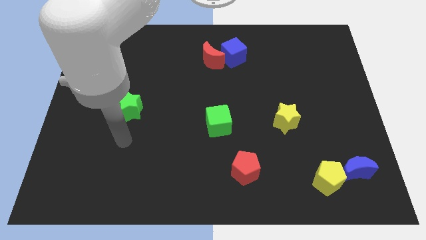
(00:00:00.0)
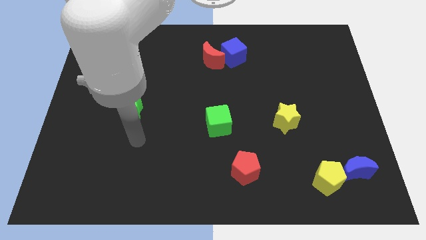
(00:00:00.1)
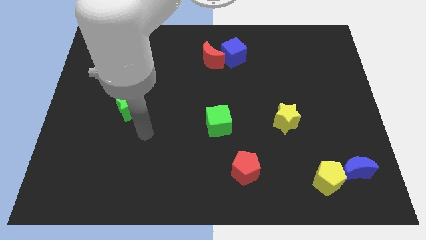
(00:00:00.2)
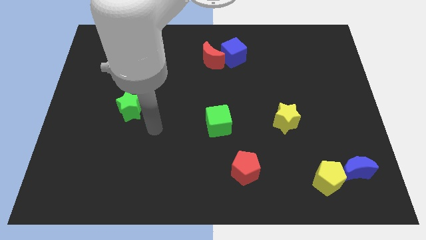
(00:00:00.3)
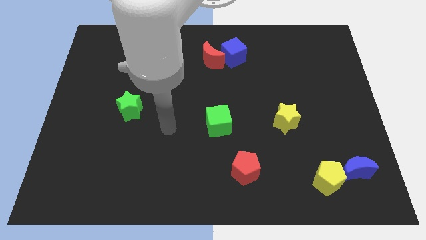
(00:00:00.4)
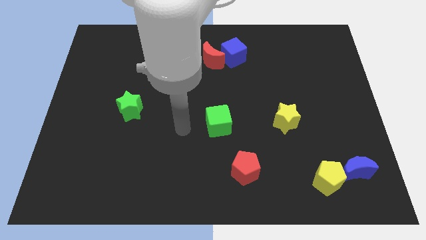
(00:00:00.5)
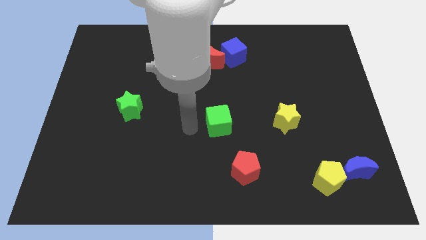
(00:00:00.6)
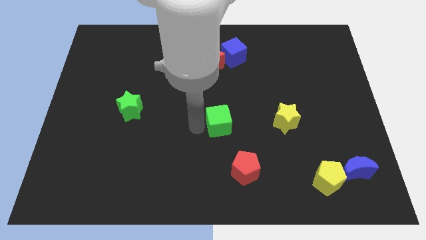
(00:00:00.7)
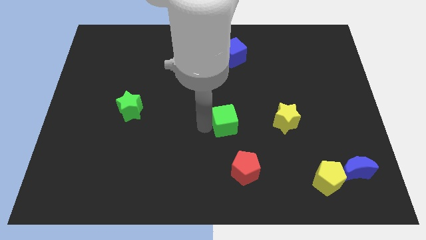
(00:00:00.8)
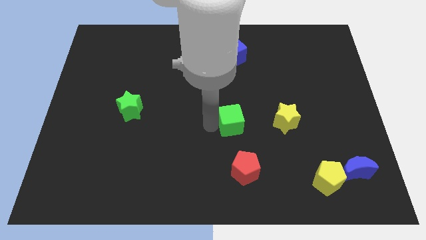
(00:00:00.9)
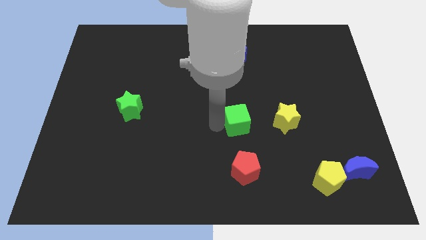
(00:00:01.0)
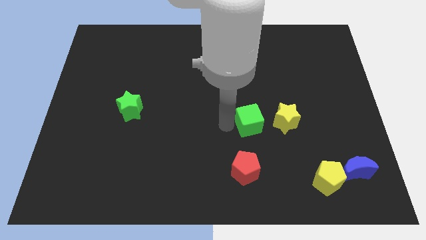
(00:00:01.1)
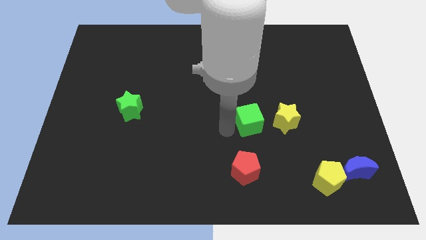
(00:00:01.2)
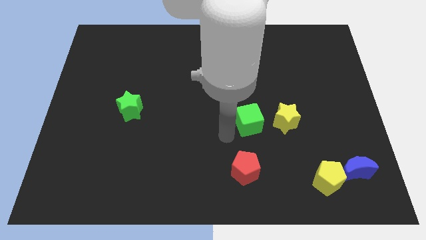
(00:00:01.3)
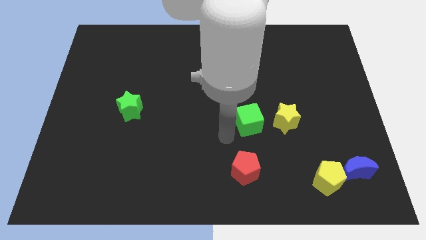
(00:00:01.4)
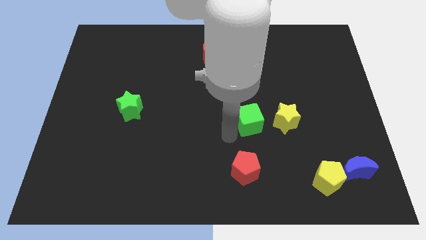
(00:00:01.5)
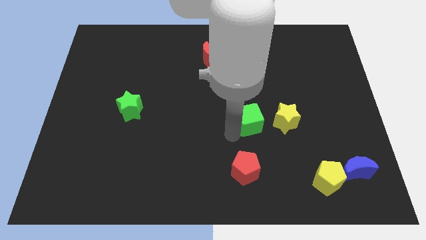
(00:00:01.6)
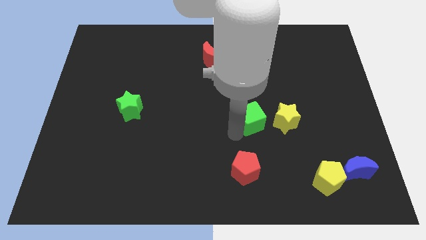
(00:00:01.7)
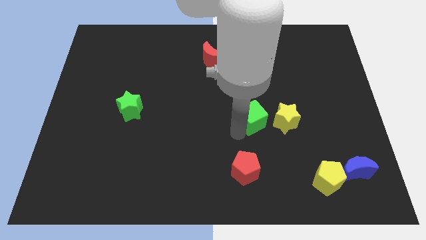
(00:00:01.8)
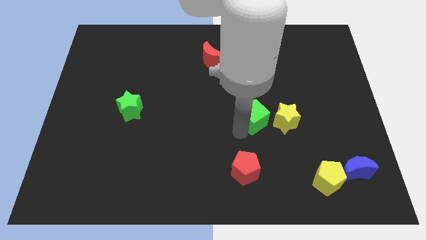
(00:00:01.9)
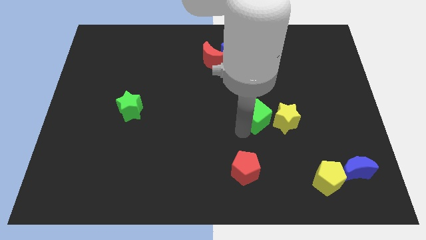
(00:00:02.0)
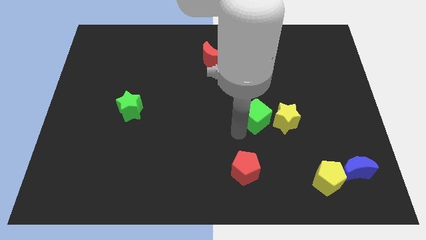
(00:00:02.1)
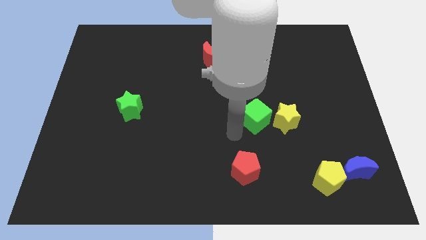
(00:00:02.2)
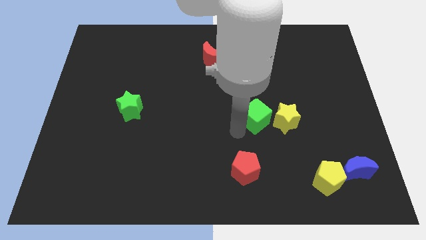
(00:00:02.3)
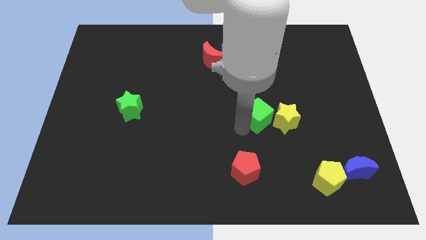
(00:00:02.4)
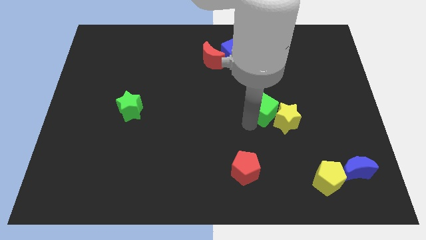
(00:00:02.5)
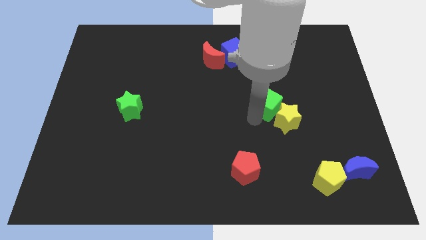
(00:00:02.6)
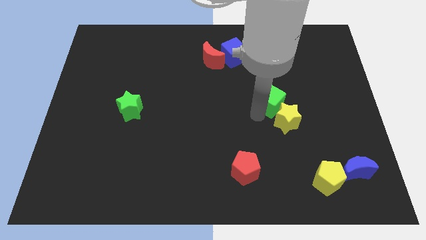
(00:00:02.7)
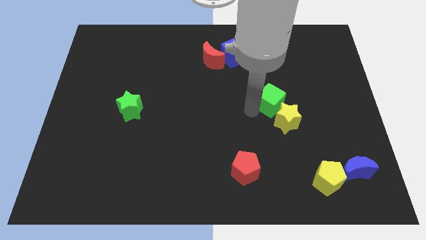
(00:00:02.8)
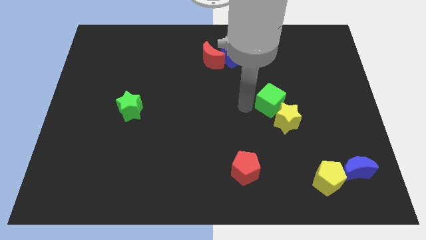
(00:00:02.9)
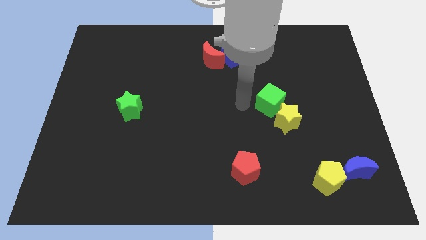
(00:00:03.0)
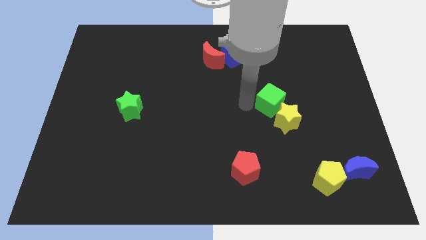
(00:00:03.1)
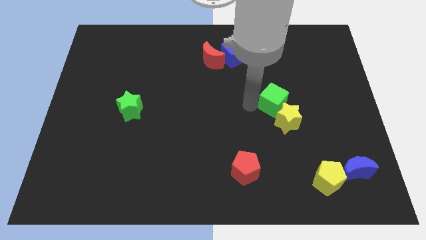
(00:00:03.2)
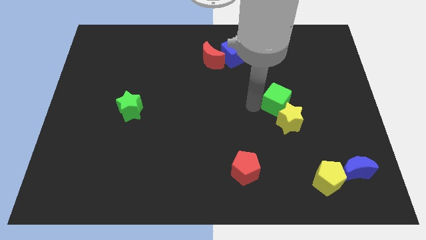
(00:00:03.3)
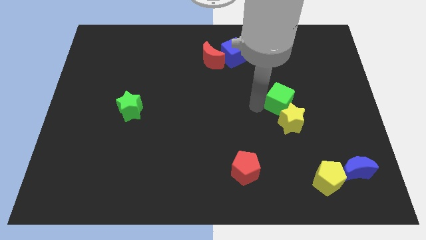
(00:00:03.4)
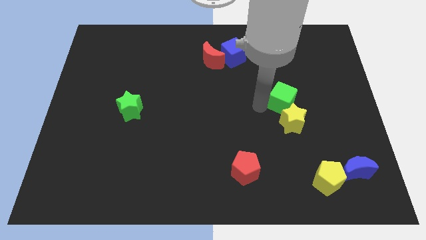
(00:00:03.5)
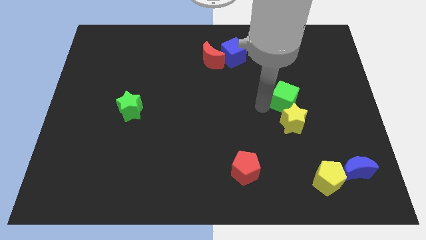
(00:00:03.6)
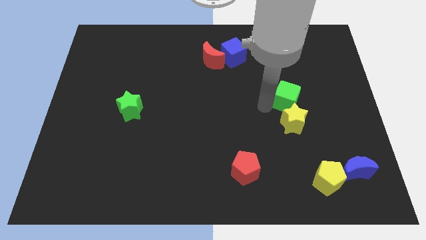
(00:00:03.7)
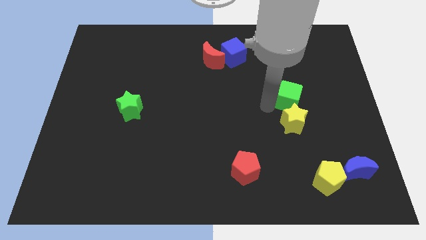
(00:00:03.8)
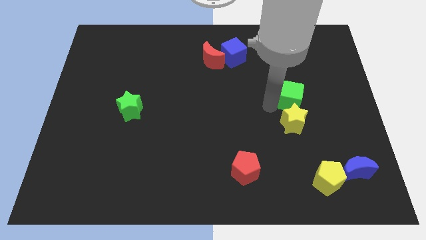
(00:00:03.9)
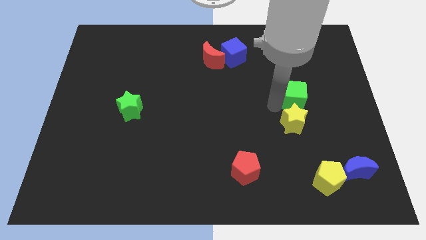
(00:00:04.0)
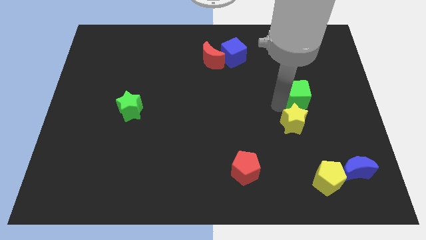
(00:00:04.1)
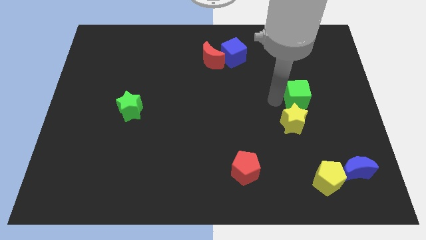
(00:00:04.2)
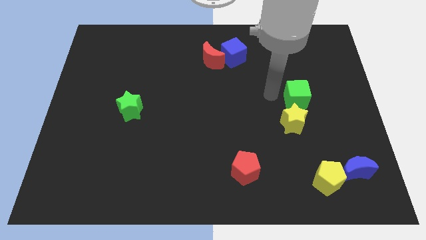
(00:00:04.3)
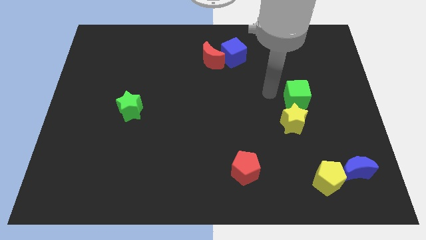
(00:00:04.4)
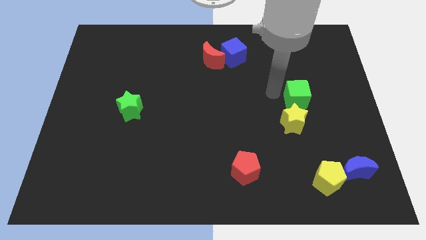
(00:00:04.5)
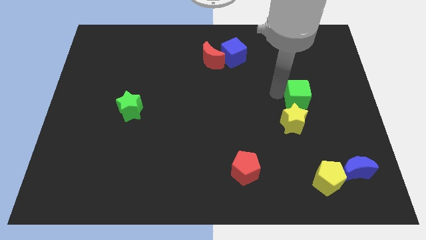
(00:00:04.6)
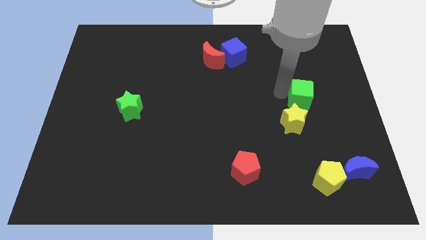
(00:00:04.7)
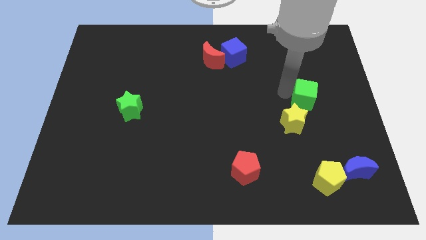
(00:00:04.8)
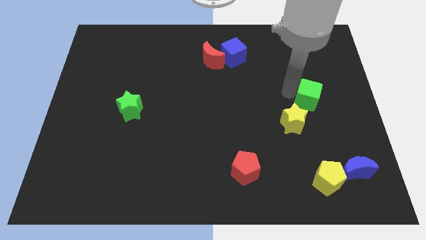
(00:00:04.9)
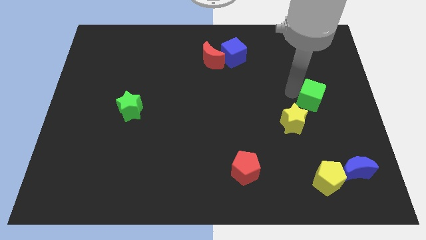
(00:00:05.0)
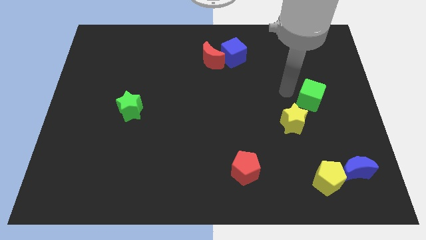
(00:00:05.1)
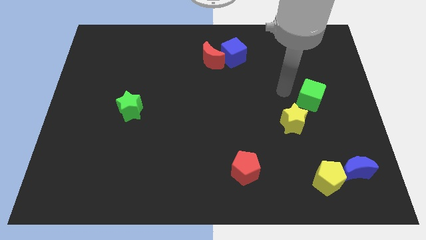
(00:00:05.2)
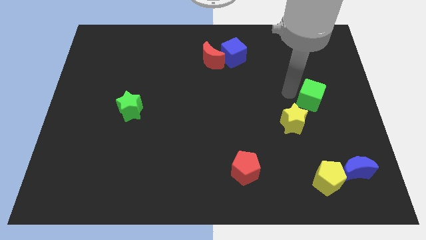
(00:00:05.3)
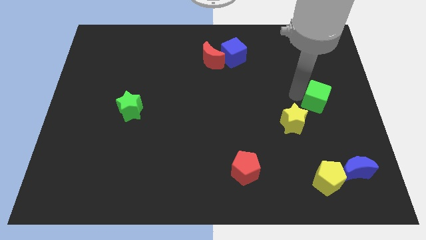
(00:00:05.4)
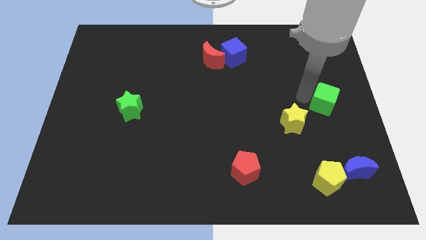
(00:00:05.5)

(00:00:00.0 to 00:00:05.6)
put the green cube to the right side of the board
